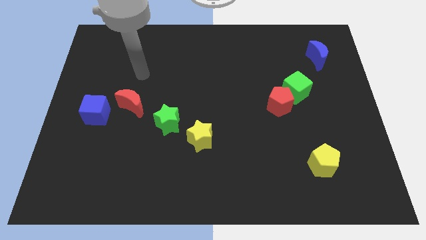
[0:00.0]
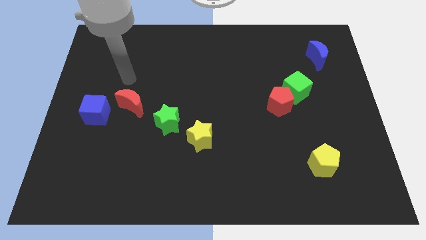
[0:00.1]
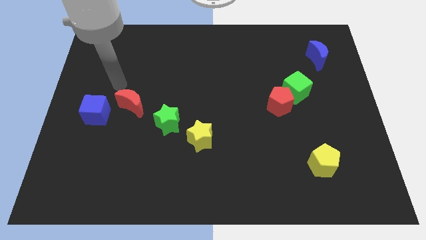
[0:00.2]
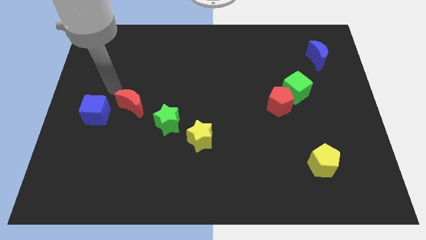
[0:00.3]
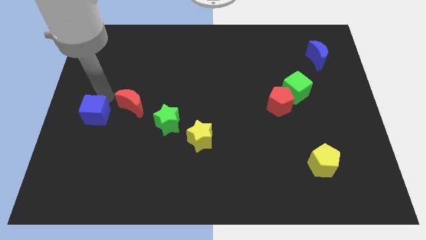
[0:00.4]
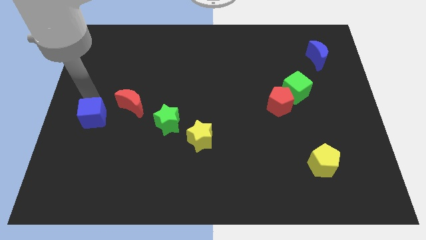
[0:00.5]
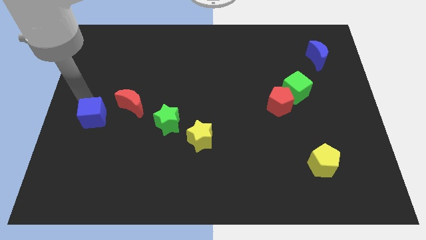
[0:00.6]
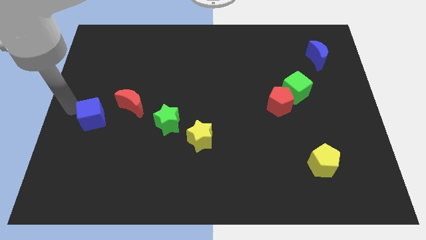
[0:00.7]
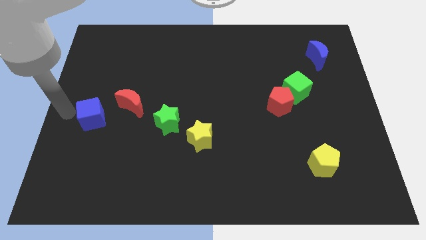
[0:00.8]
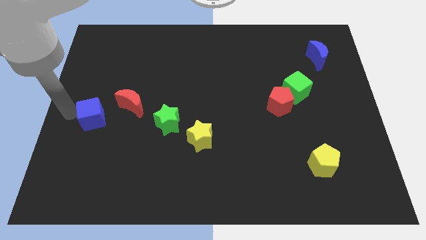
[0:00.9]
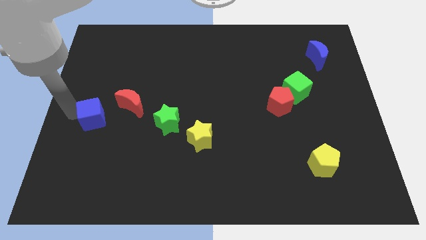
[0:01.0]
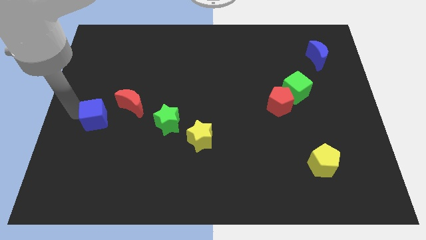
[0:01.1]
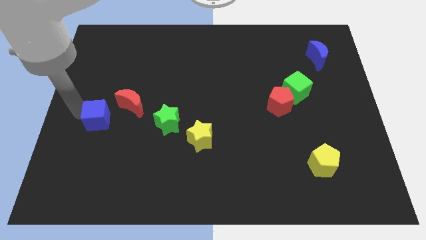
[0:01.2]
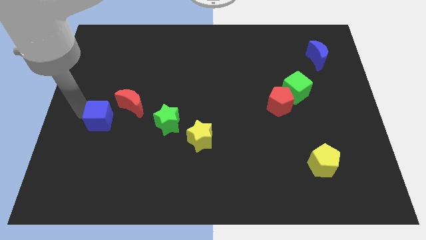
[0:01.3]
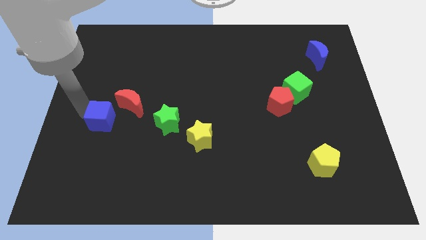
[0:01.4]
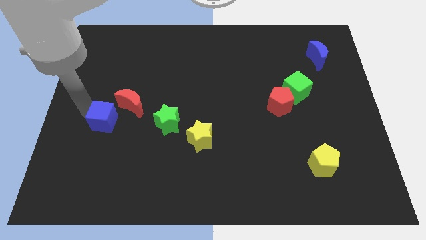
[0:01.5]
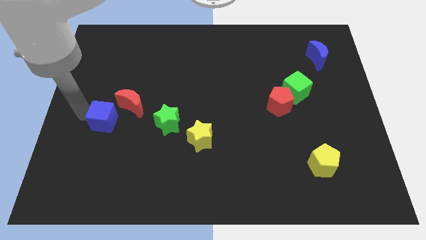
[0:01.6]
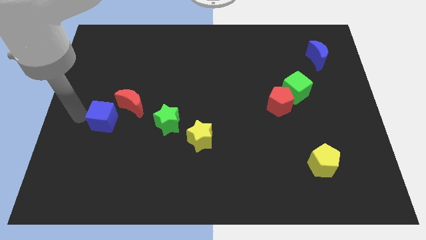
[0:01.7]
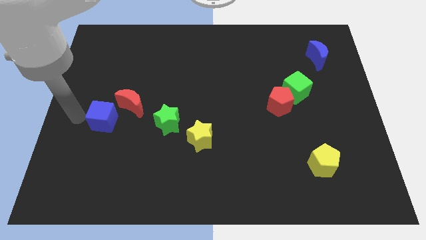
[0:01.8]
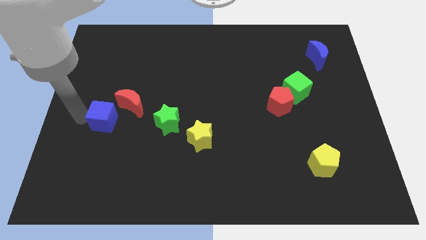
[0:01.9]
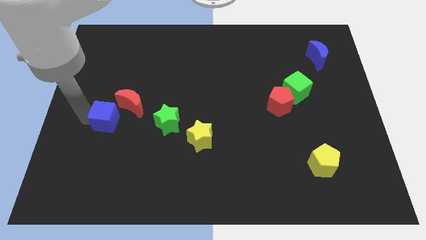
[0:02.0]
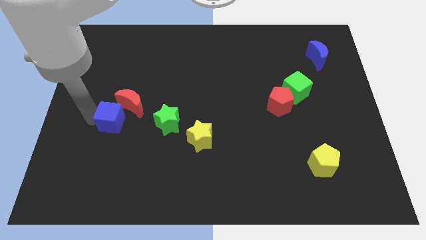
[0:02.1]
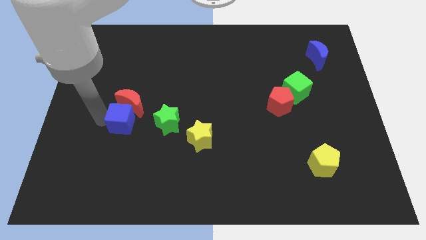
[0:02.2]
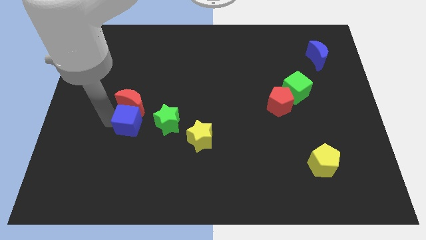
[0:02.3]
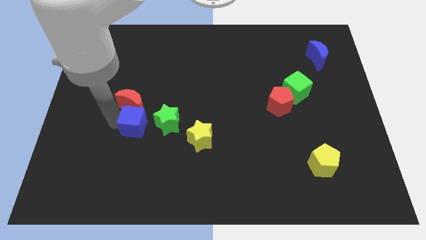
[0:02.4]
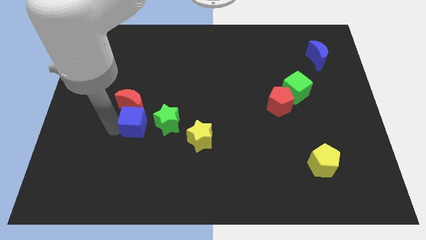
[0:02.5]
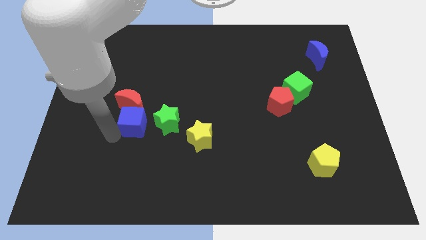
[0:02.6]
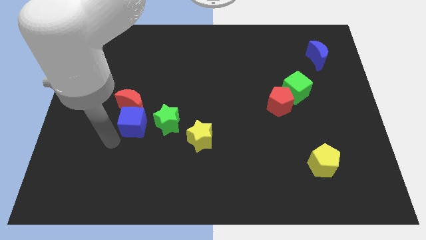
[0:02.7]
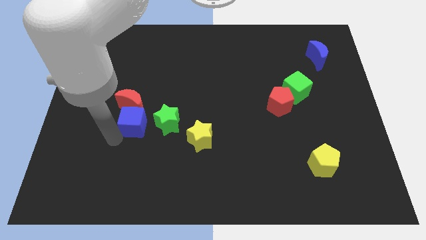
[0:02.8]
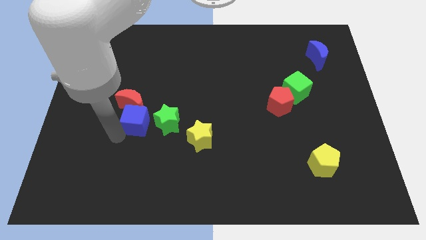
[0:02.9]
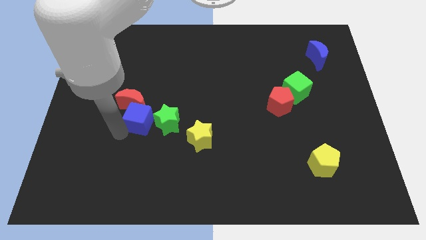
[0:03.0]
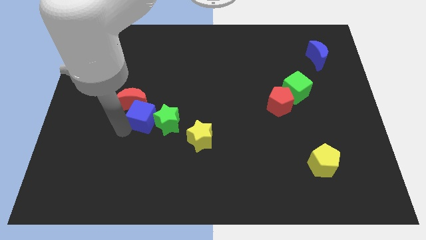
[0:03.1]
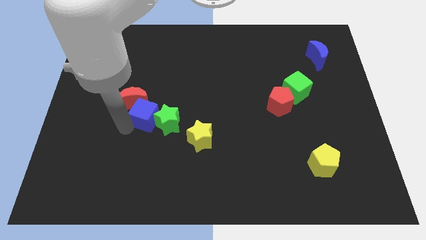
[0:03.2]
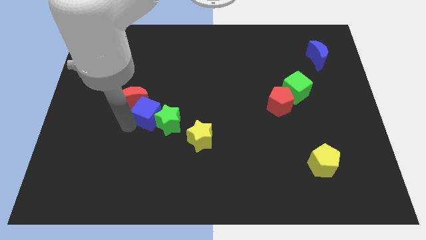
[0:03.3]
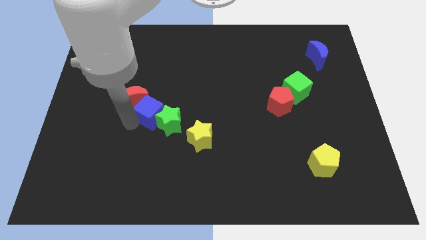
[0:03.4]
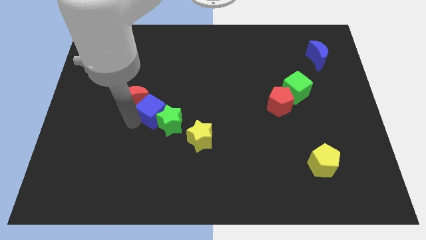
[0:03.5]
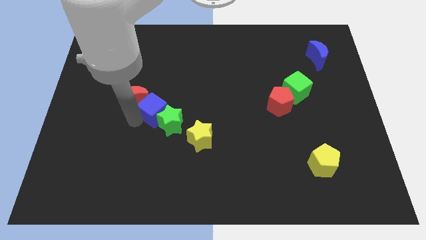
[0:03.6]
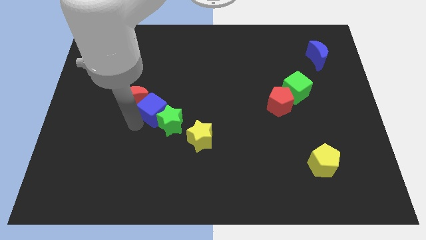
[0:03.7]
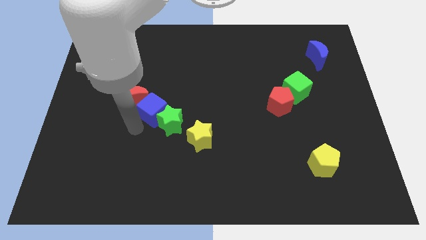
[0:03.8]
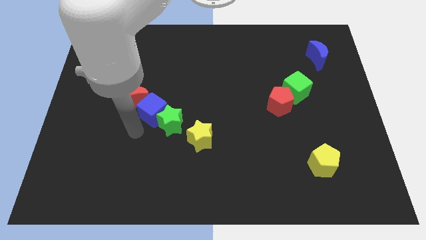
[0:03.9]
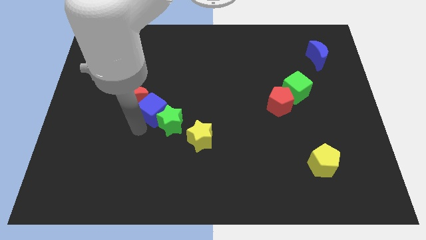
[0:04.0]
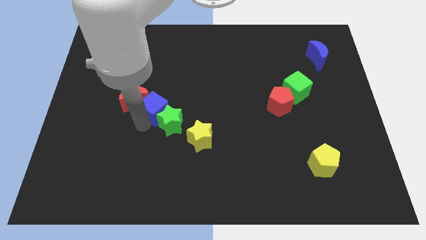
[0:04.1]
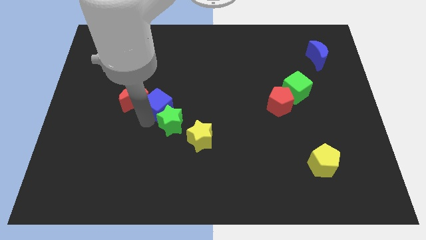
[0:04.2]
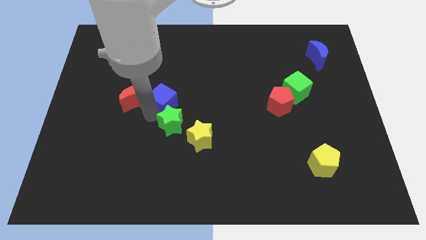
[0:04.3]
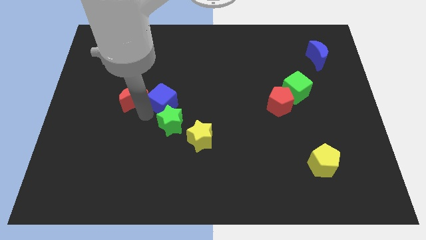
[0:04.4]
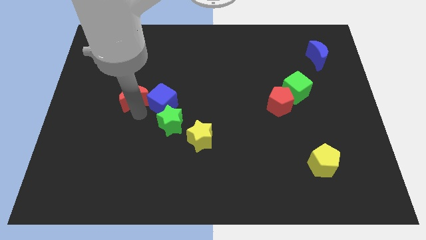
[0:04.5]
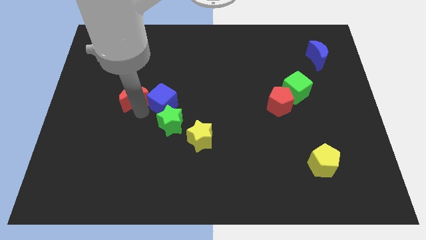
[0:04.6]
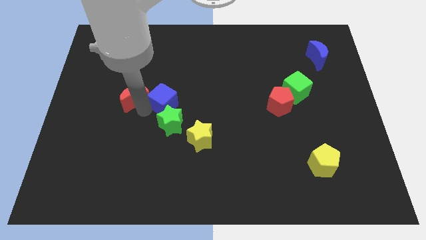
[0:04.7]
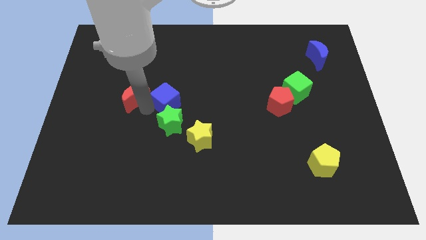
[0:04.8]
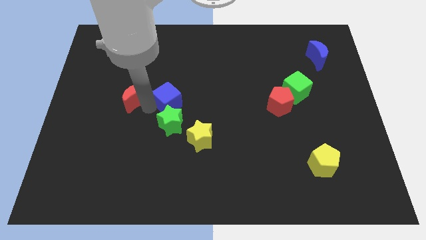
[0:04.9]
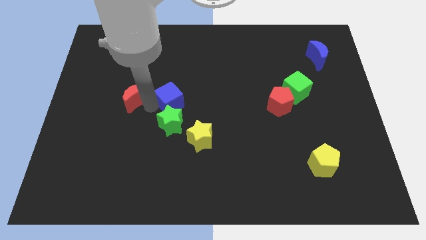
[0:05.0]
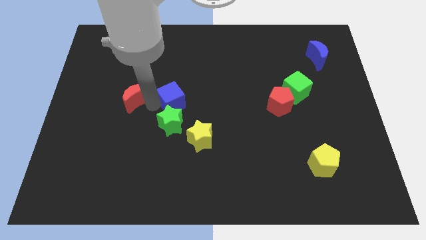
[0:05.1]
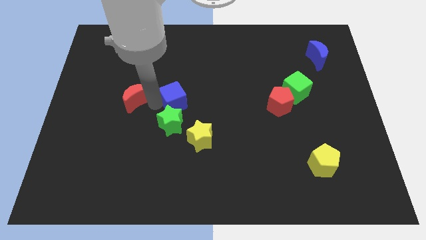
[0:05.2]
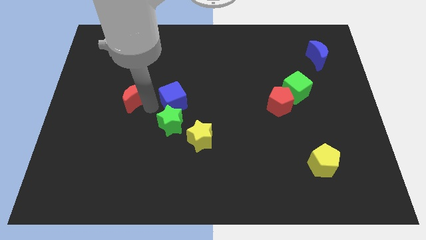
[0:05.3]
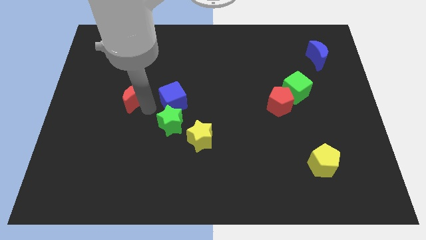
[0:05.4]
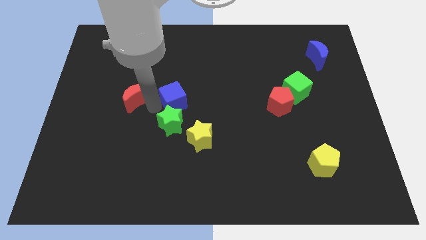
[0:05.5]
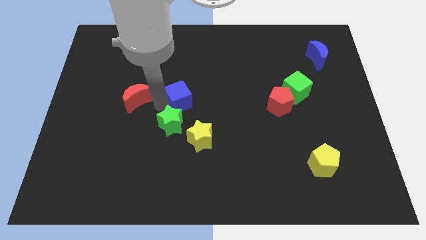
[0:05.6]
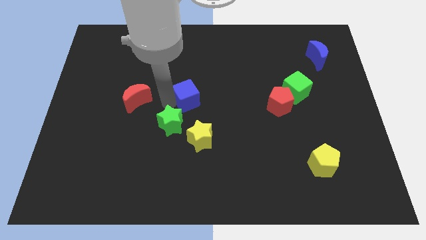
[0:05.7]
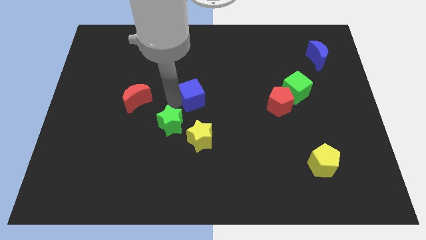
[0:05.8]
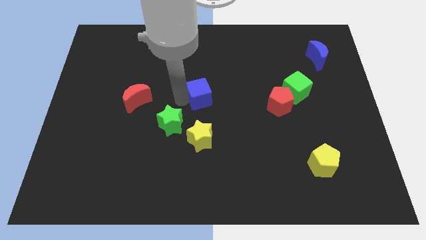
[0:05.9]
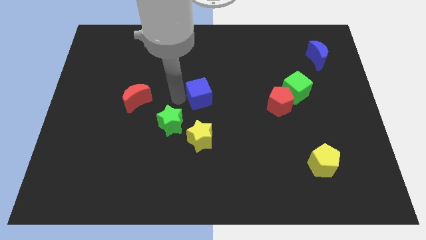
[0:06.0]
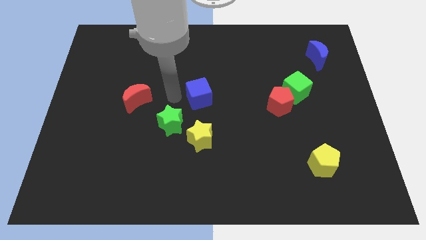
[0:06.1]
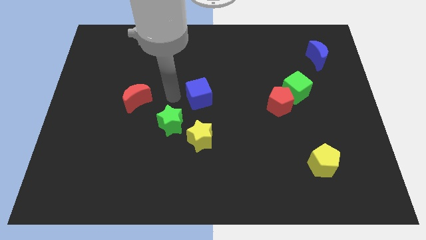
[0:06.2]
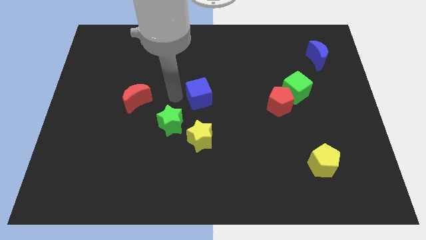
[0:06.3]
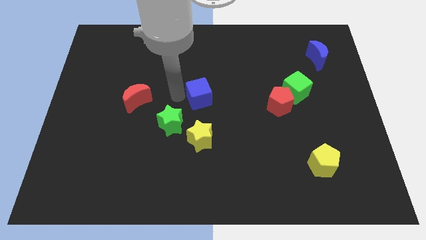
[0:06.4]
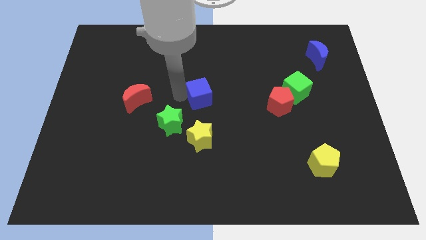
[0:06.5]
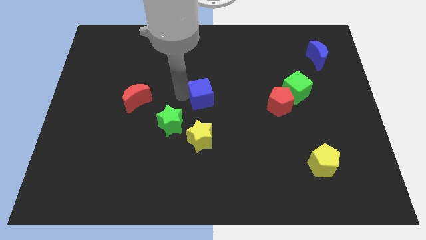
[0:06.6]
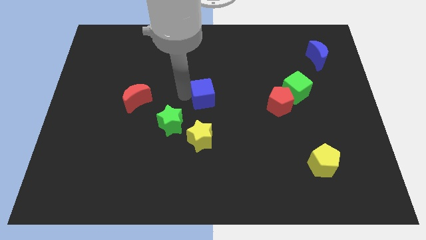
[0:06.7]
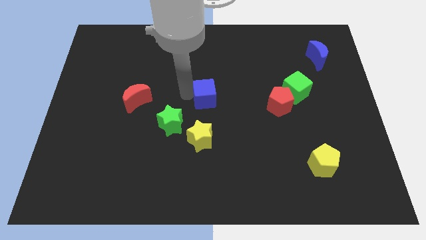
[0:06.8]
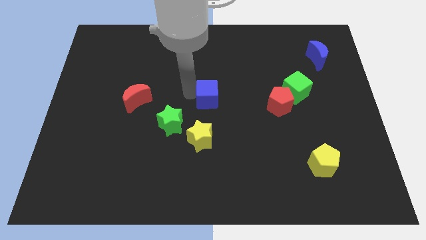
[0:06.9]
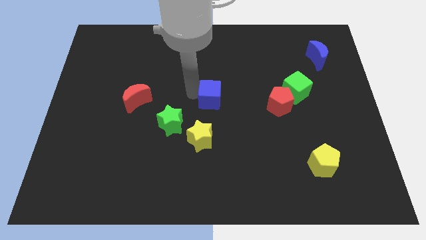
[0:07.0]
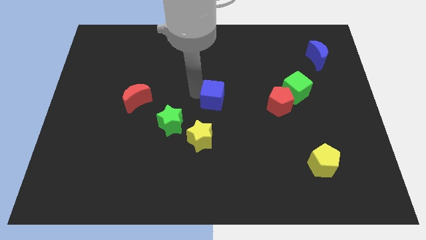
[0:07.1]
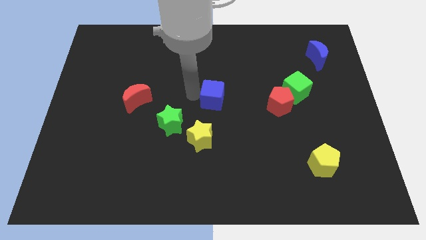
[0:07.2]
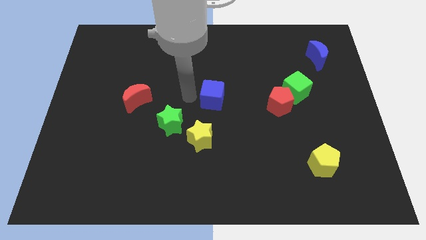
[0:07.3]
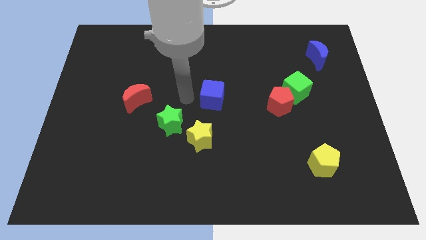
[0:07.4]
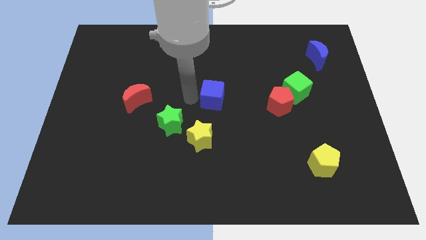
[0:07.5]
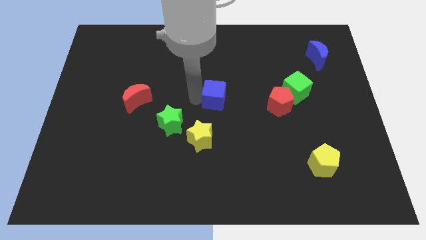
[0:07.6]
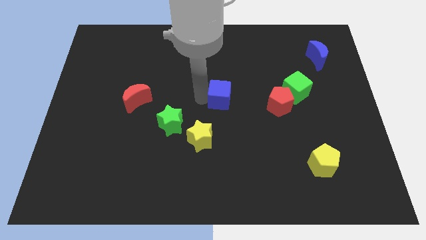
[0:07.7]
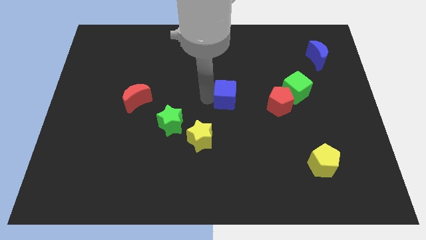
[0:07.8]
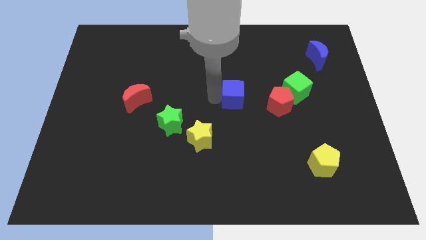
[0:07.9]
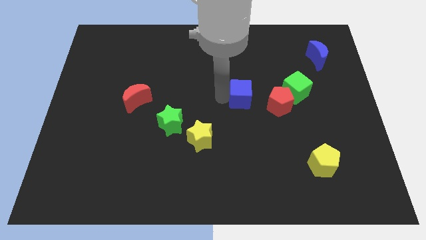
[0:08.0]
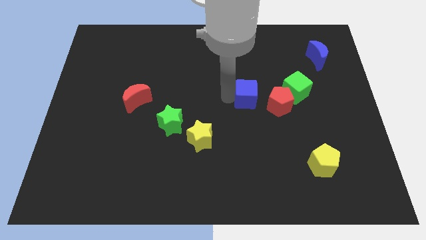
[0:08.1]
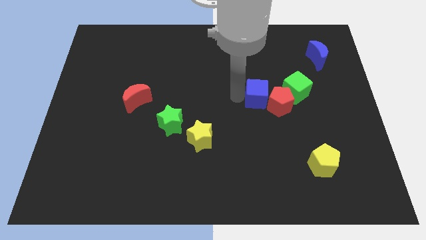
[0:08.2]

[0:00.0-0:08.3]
put the blue cube to the red pentagon
